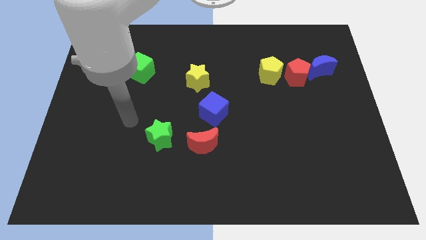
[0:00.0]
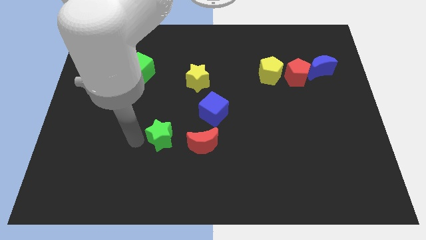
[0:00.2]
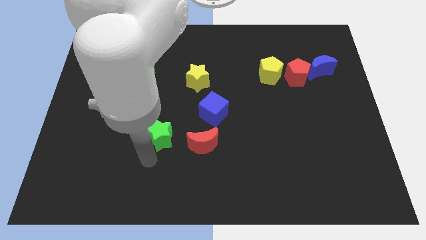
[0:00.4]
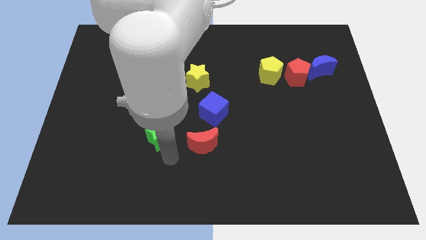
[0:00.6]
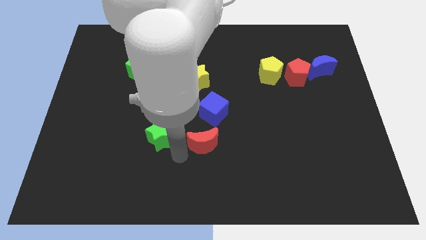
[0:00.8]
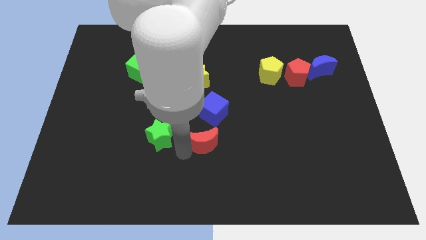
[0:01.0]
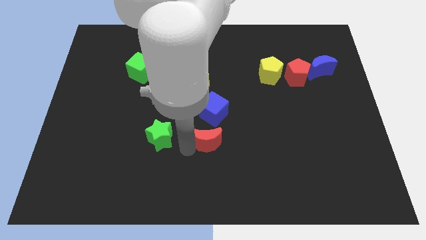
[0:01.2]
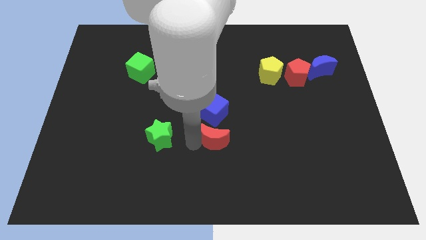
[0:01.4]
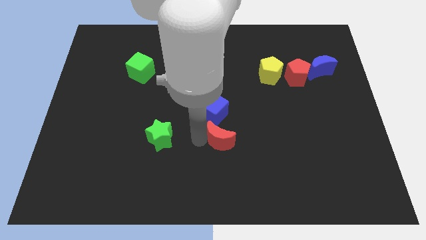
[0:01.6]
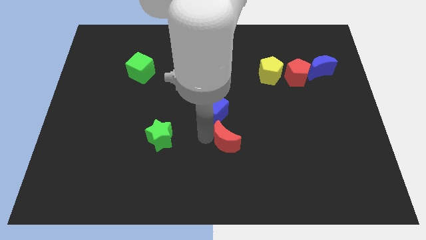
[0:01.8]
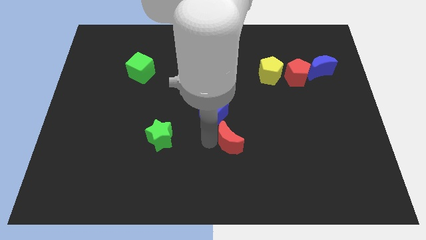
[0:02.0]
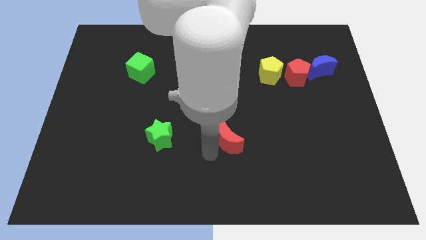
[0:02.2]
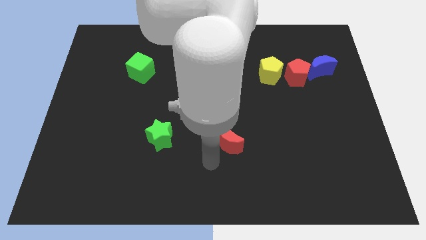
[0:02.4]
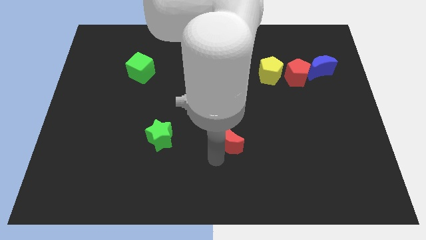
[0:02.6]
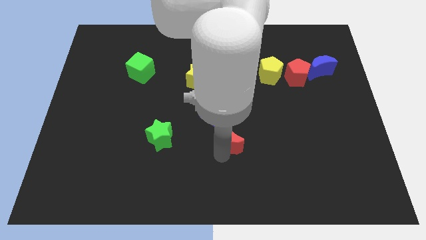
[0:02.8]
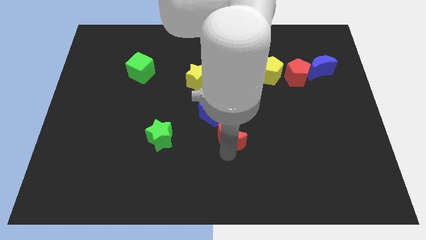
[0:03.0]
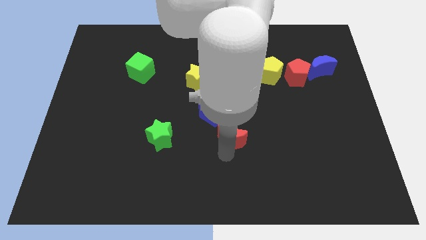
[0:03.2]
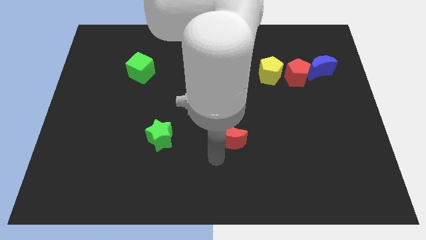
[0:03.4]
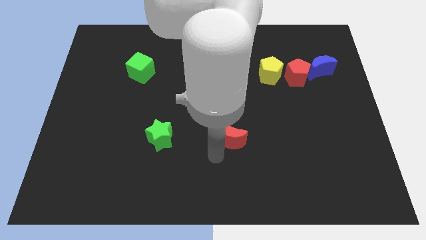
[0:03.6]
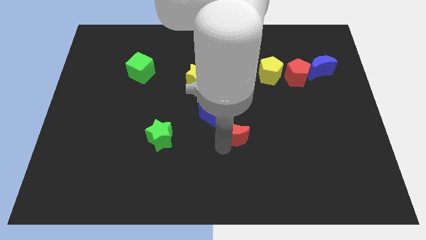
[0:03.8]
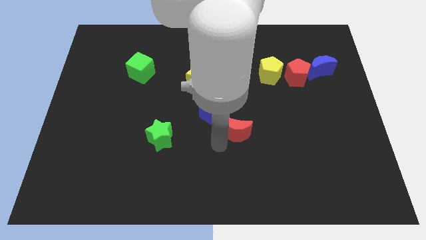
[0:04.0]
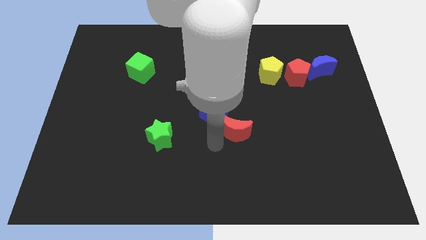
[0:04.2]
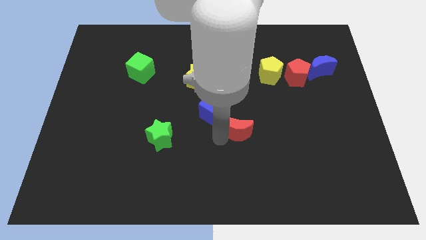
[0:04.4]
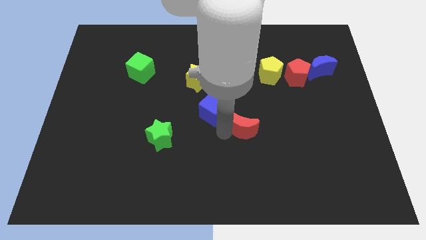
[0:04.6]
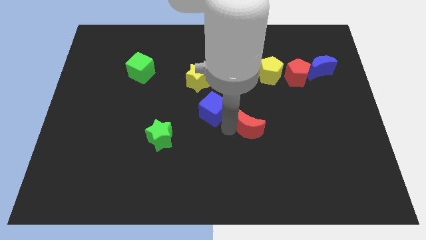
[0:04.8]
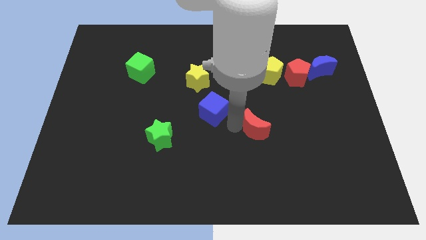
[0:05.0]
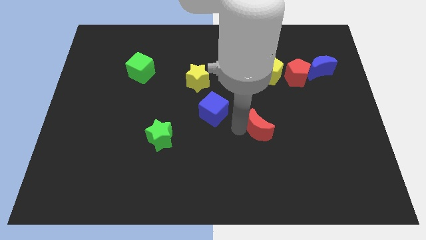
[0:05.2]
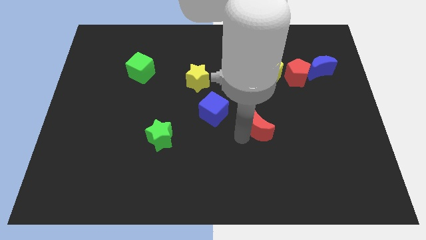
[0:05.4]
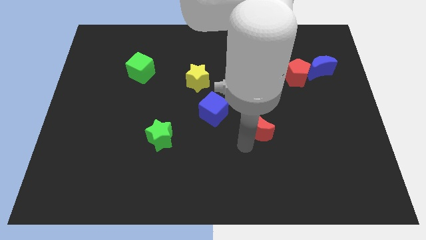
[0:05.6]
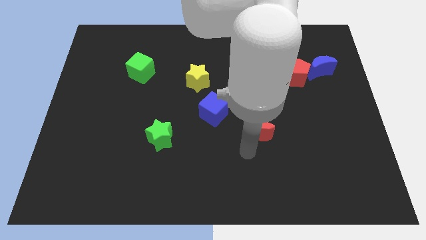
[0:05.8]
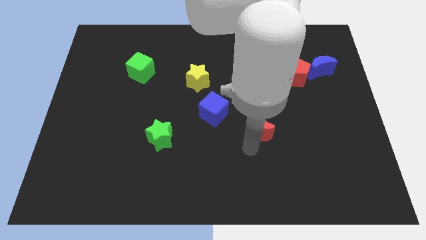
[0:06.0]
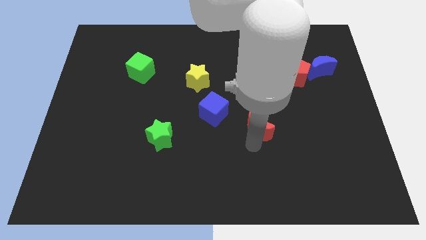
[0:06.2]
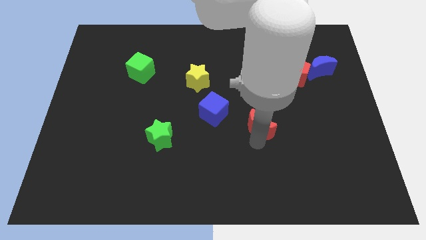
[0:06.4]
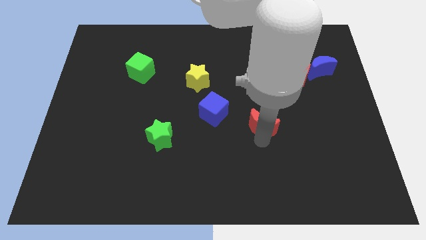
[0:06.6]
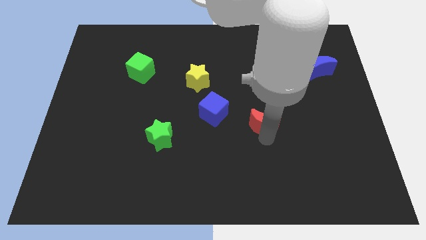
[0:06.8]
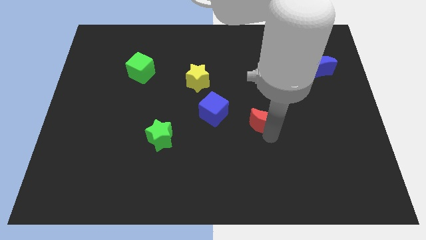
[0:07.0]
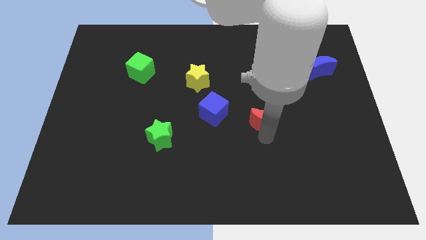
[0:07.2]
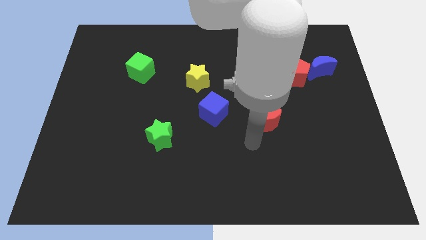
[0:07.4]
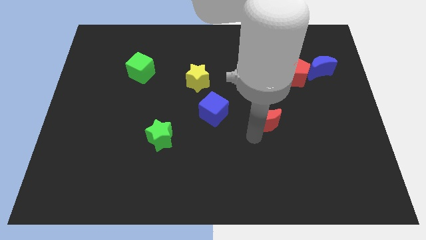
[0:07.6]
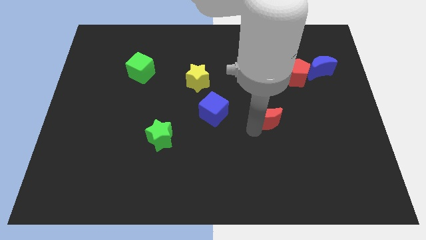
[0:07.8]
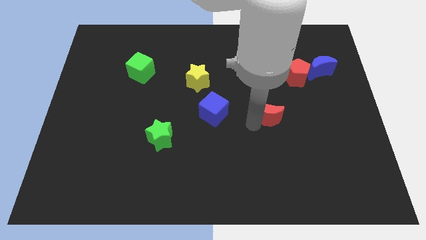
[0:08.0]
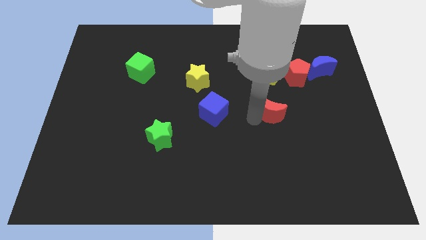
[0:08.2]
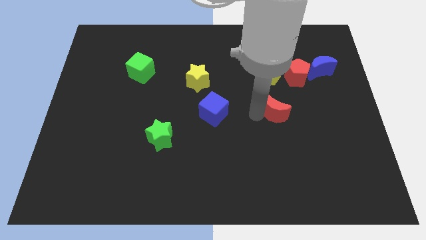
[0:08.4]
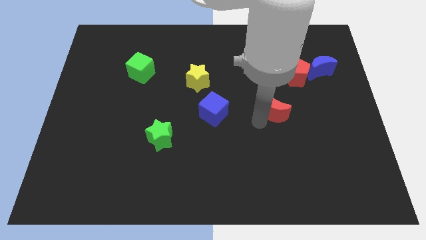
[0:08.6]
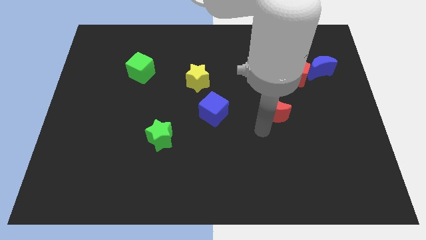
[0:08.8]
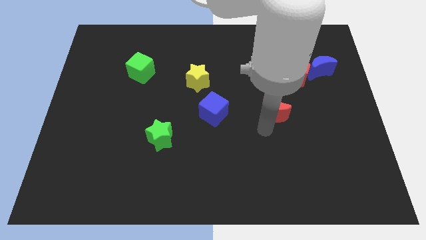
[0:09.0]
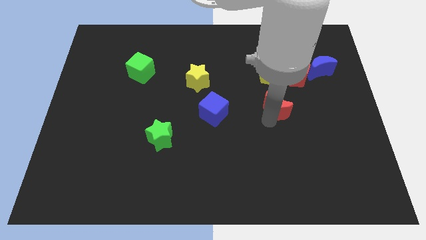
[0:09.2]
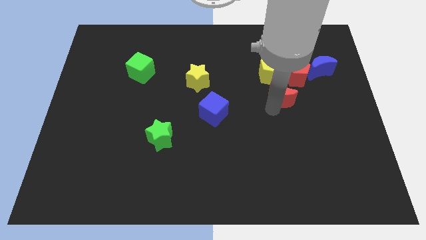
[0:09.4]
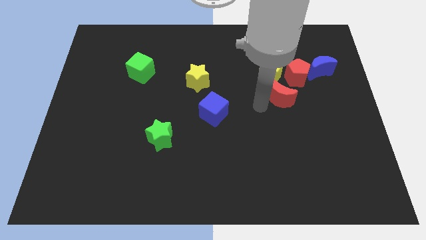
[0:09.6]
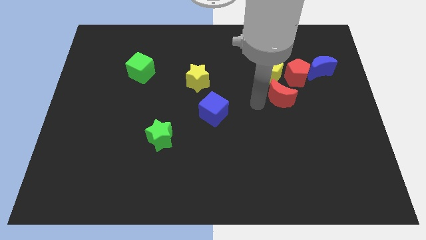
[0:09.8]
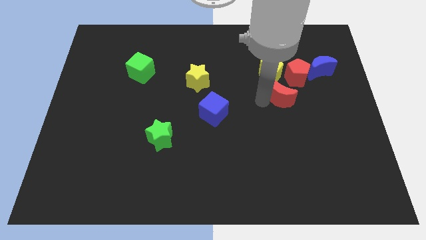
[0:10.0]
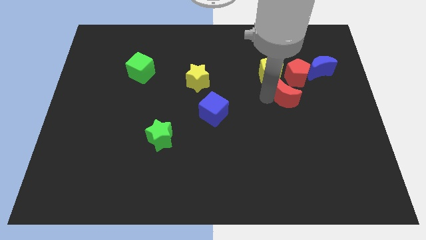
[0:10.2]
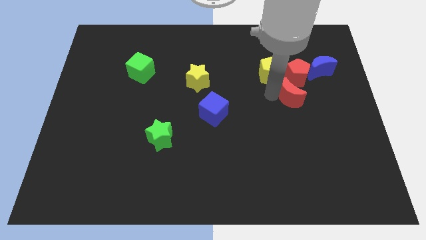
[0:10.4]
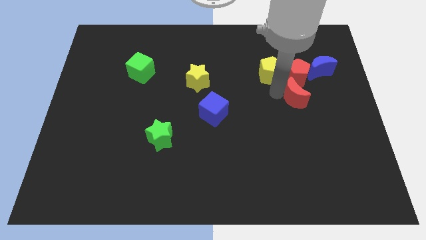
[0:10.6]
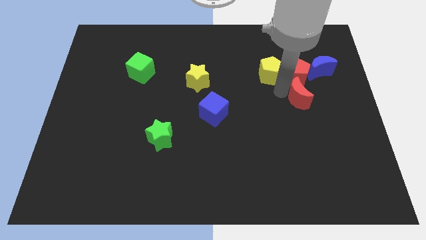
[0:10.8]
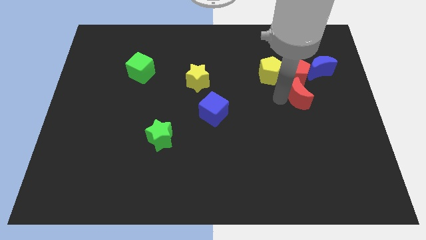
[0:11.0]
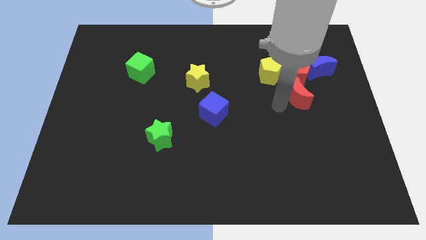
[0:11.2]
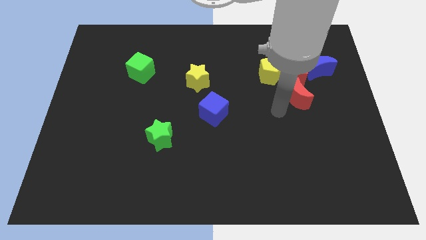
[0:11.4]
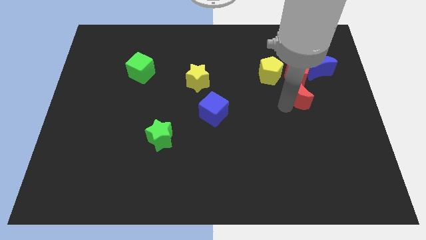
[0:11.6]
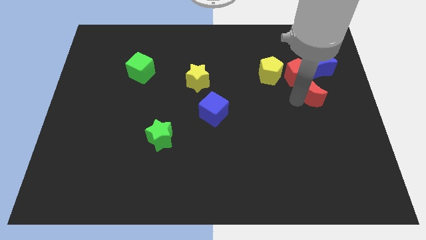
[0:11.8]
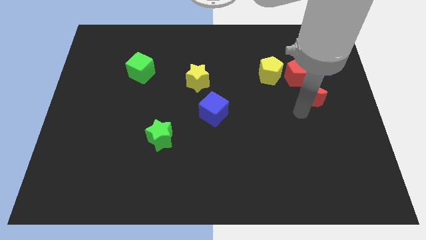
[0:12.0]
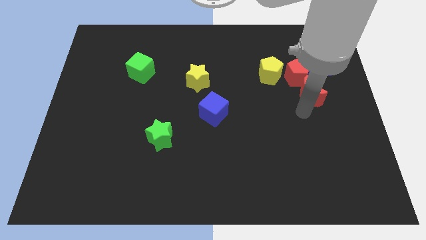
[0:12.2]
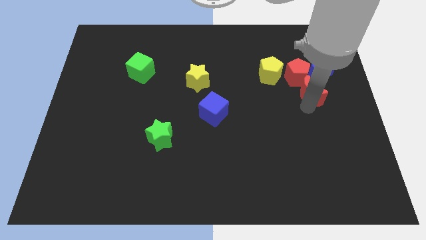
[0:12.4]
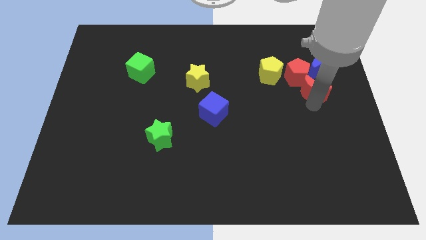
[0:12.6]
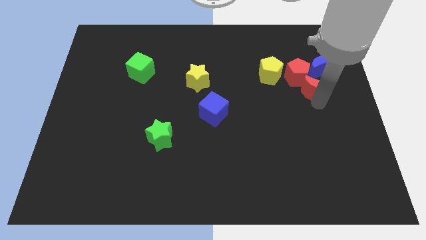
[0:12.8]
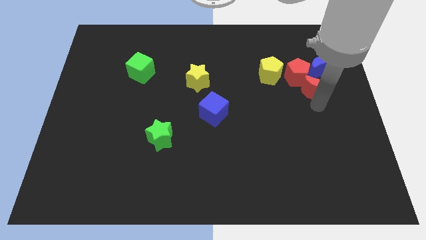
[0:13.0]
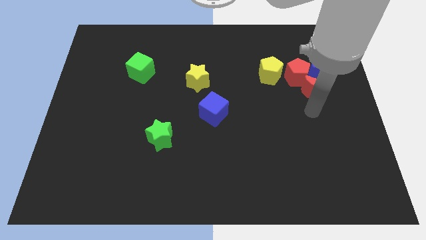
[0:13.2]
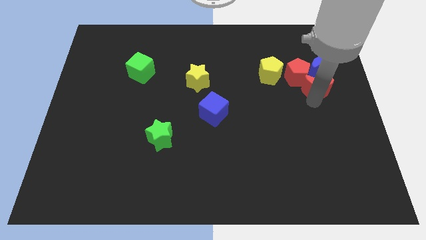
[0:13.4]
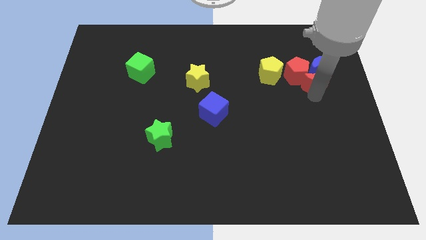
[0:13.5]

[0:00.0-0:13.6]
push the red moon towards the blue moon

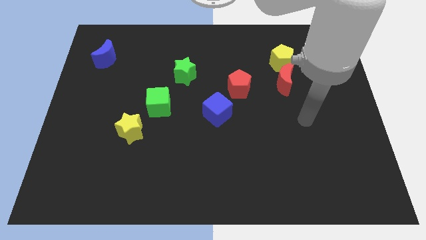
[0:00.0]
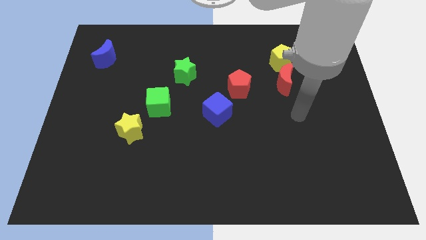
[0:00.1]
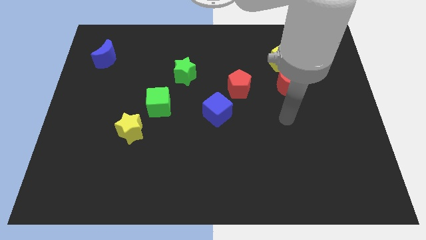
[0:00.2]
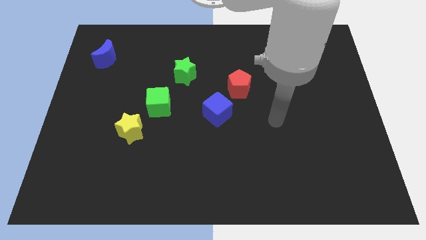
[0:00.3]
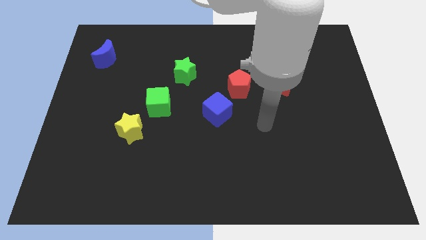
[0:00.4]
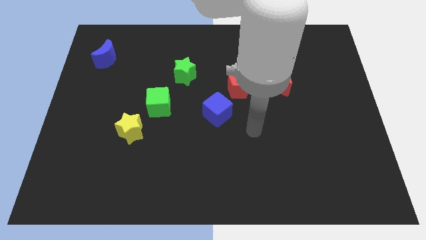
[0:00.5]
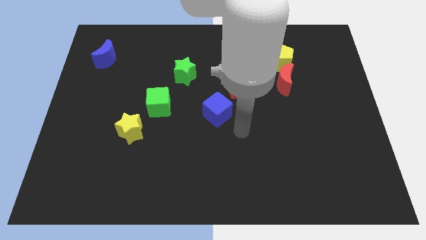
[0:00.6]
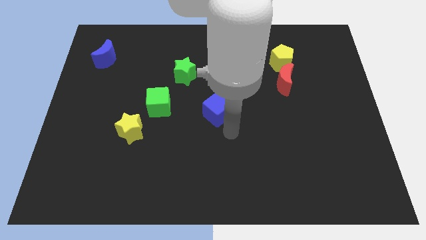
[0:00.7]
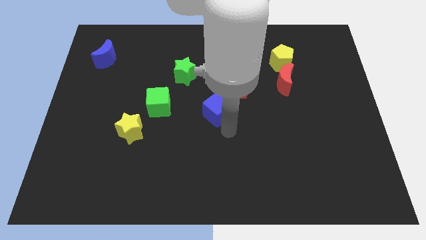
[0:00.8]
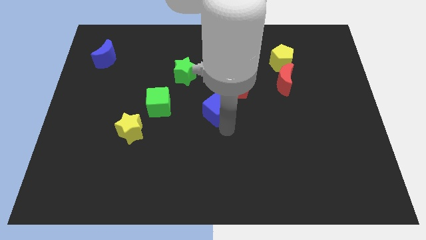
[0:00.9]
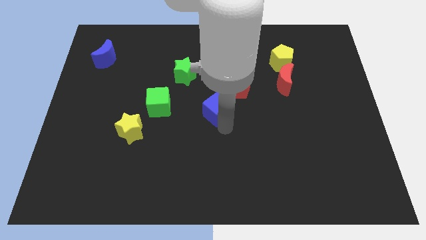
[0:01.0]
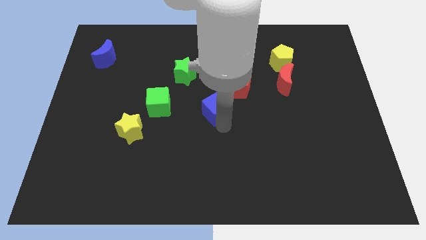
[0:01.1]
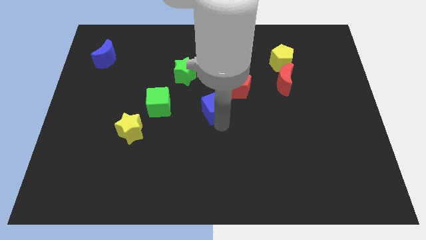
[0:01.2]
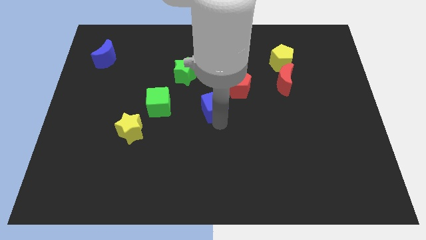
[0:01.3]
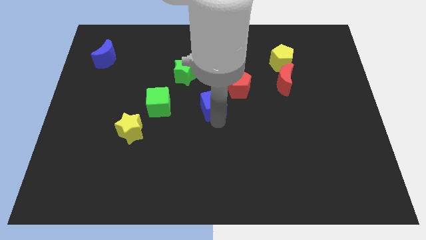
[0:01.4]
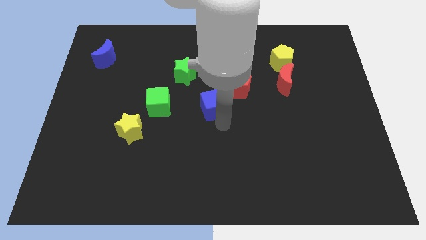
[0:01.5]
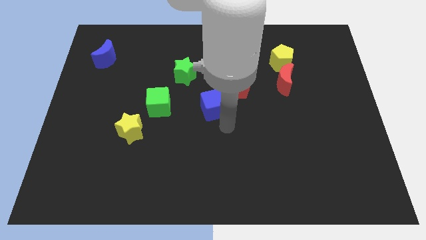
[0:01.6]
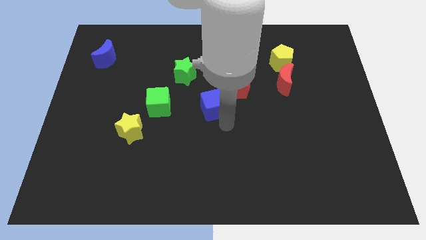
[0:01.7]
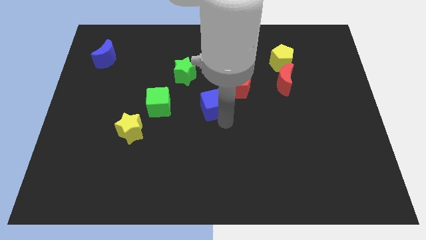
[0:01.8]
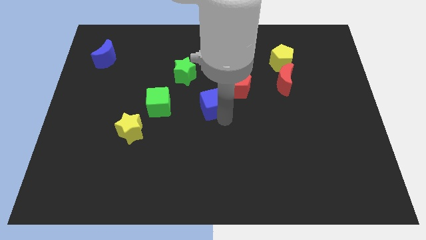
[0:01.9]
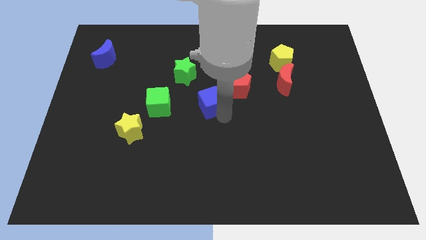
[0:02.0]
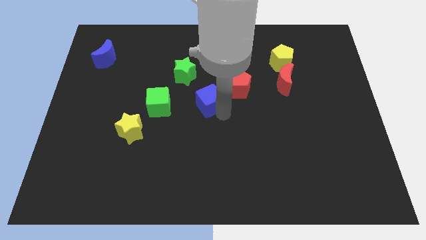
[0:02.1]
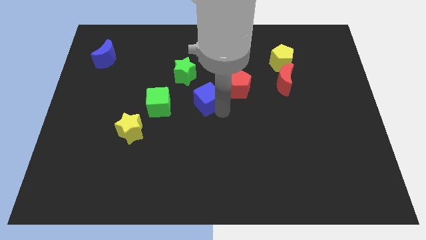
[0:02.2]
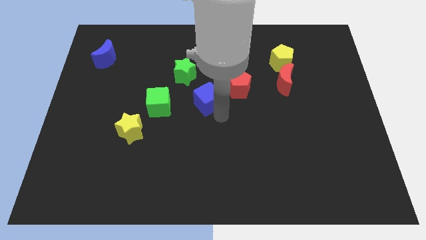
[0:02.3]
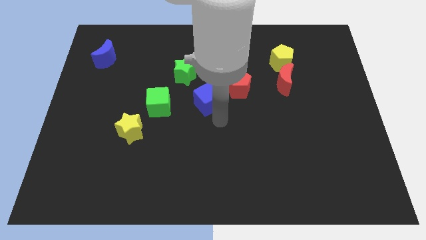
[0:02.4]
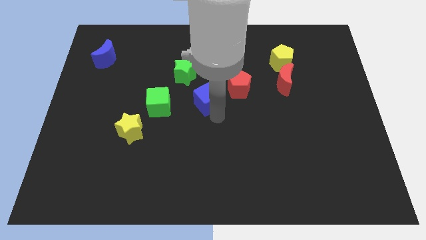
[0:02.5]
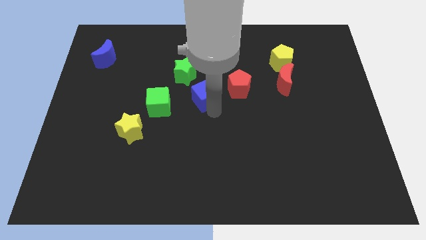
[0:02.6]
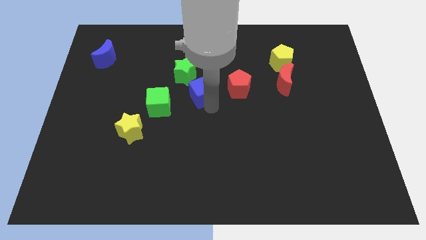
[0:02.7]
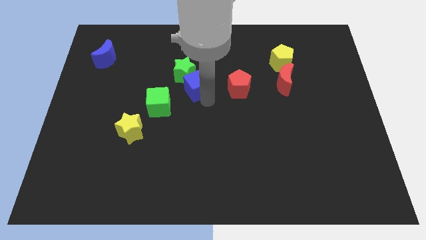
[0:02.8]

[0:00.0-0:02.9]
put the blue cube next to the green star
